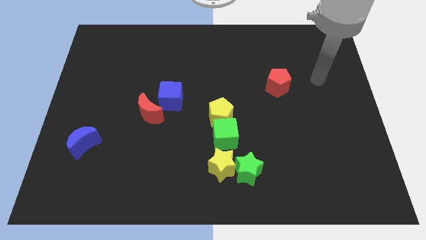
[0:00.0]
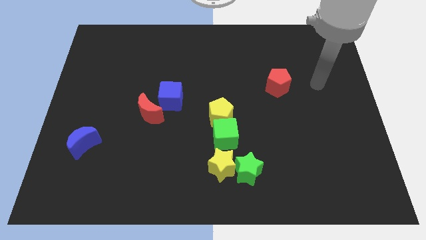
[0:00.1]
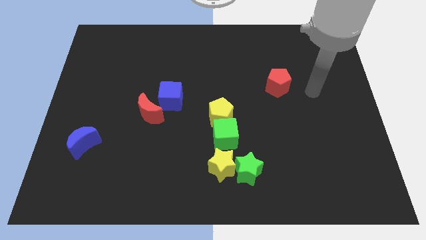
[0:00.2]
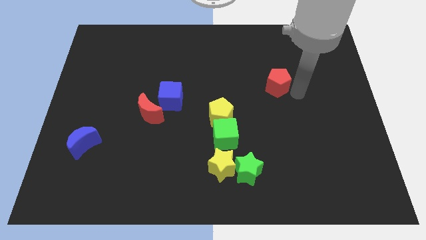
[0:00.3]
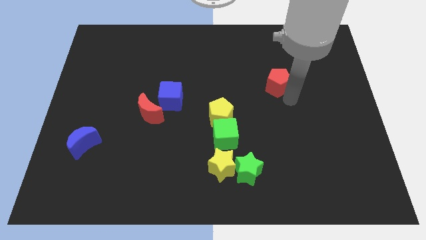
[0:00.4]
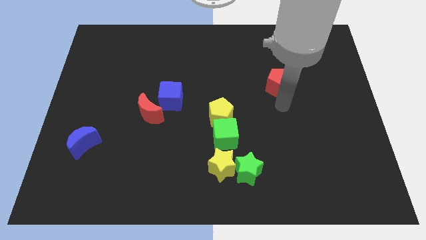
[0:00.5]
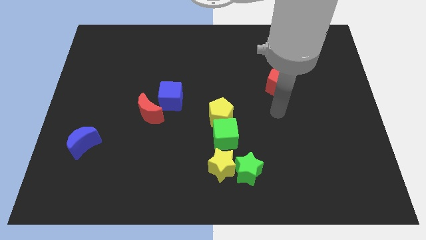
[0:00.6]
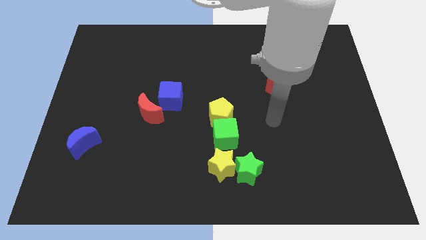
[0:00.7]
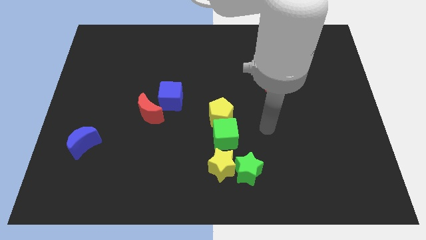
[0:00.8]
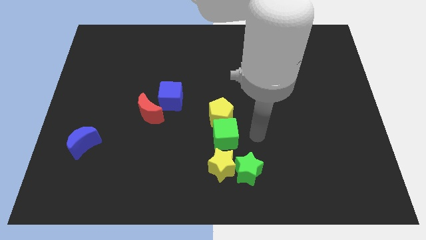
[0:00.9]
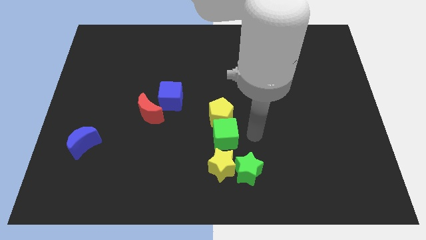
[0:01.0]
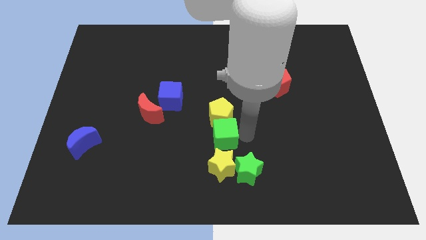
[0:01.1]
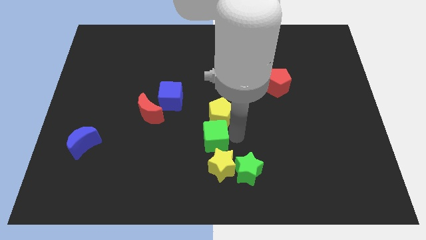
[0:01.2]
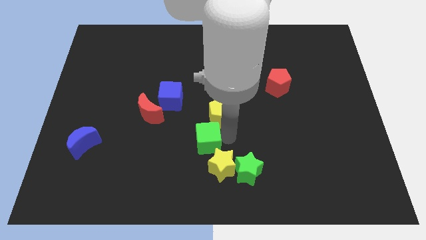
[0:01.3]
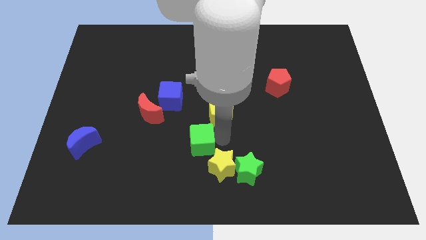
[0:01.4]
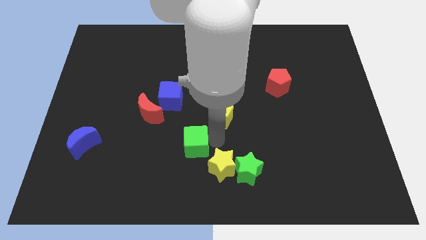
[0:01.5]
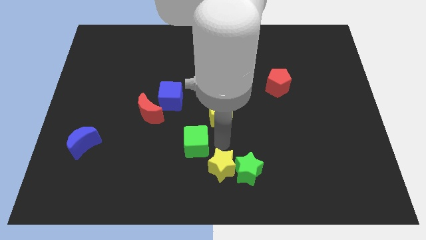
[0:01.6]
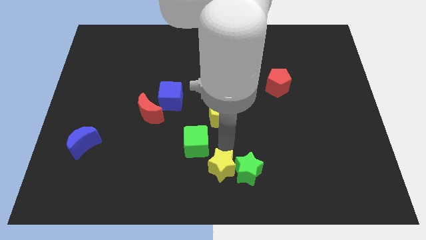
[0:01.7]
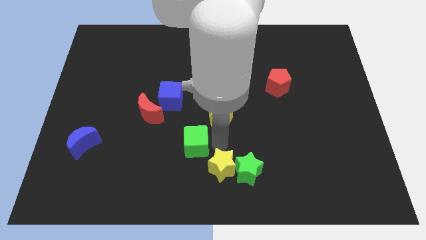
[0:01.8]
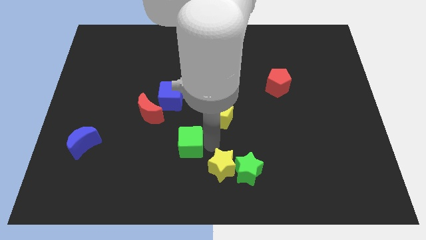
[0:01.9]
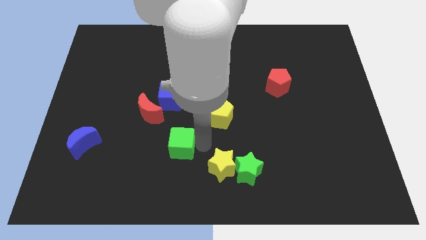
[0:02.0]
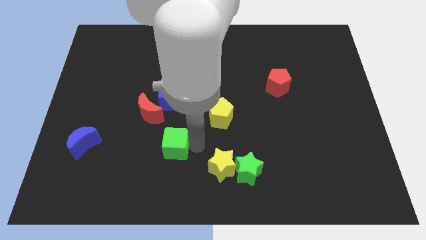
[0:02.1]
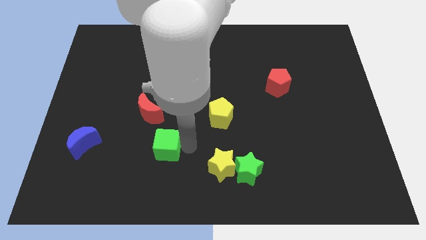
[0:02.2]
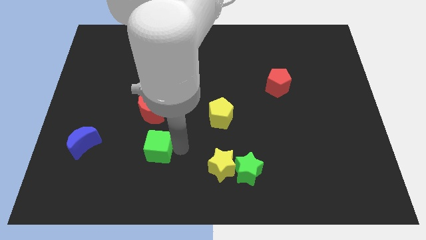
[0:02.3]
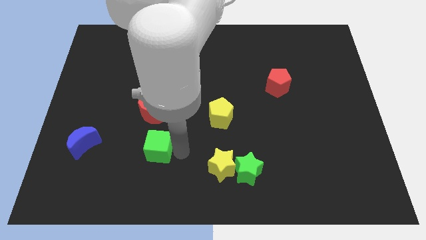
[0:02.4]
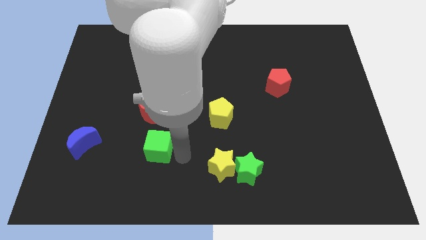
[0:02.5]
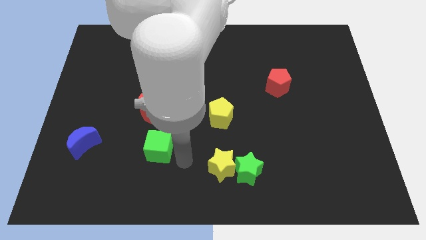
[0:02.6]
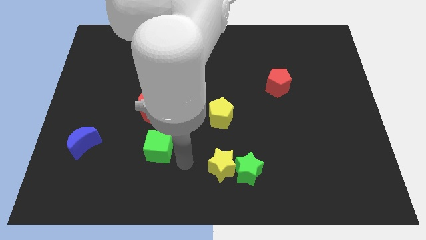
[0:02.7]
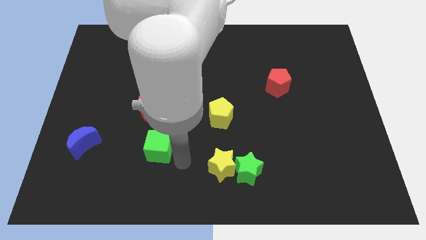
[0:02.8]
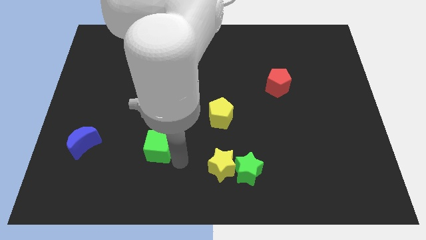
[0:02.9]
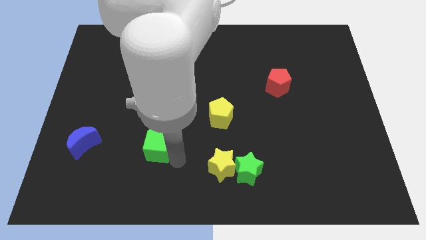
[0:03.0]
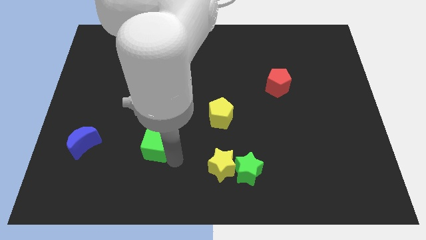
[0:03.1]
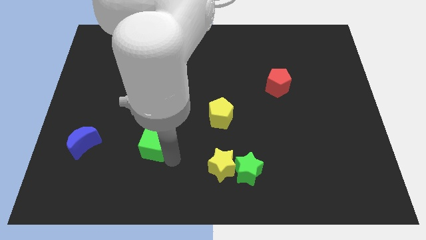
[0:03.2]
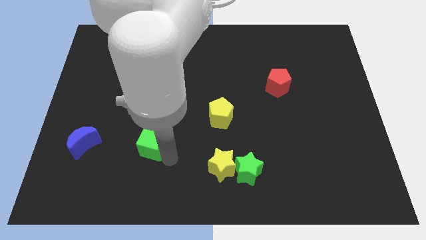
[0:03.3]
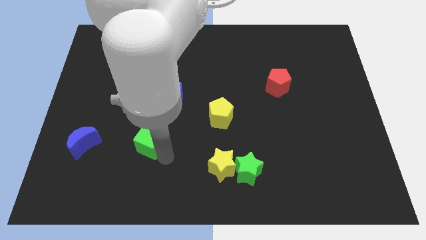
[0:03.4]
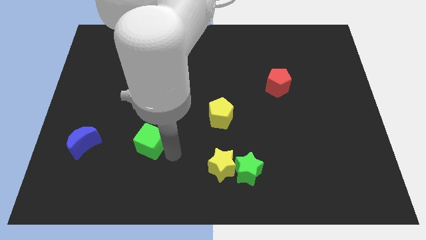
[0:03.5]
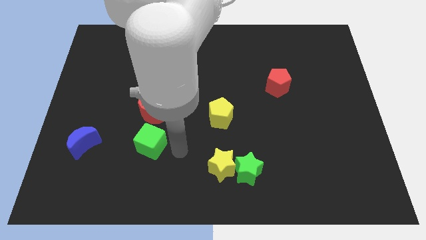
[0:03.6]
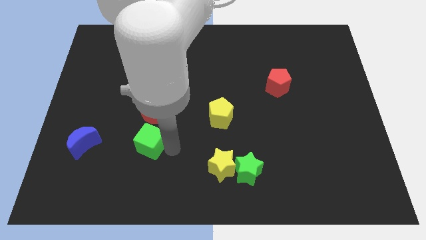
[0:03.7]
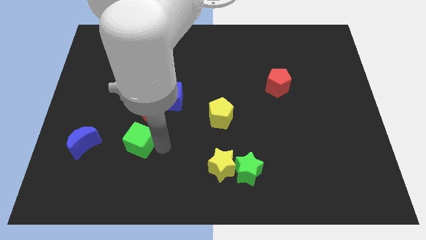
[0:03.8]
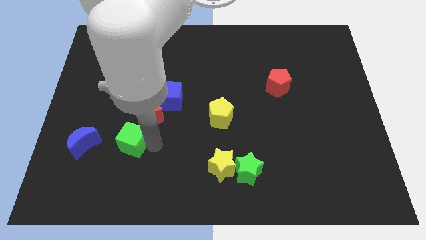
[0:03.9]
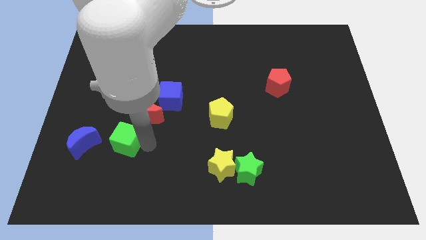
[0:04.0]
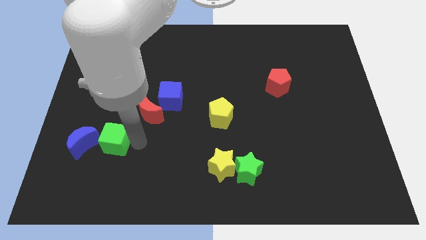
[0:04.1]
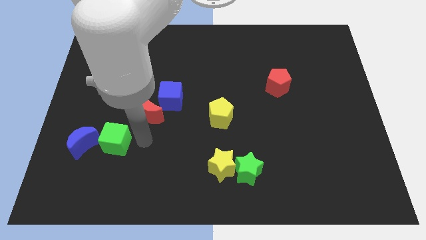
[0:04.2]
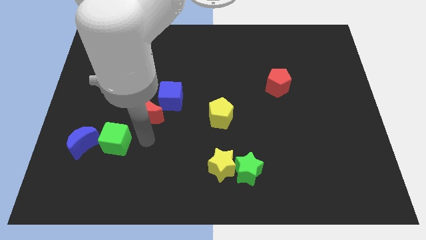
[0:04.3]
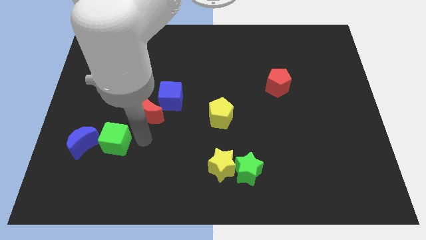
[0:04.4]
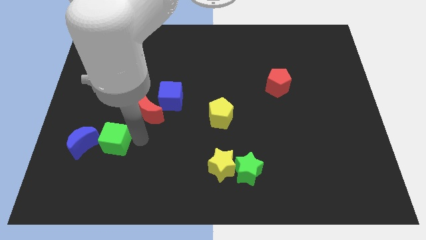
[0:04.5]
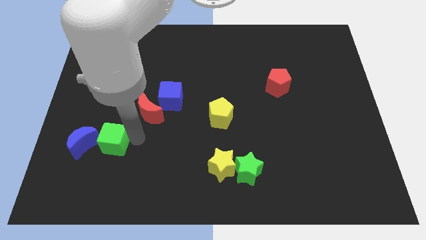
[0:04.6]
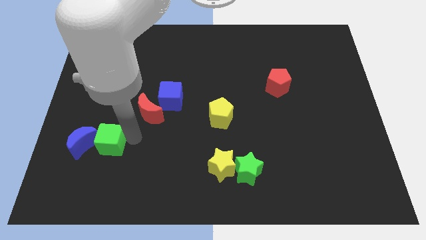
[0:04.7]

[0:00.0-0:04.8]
move the green cube towards the blue moon

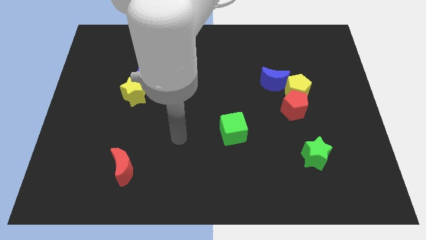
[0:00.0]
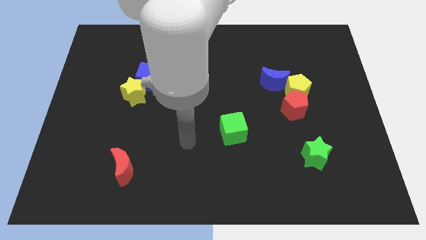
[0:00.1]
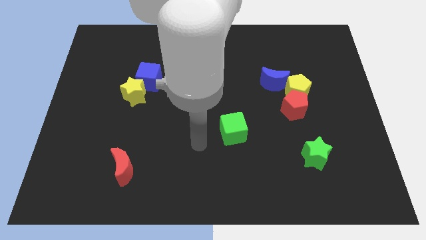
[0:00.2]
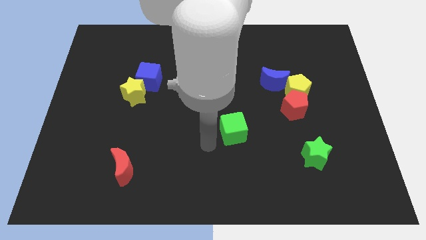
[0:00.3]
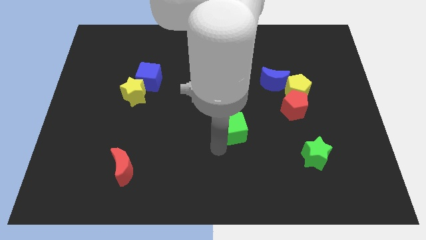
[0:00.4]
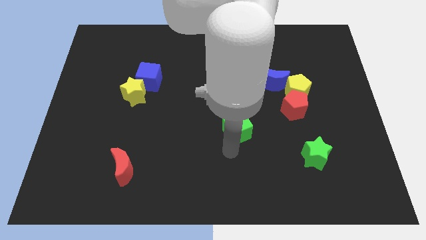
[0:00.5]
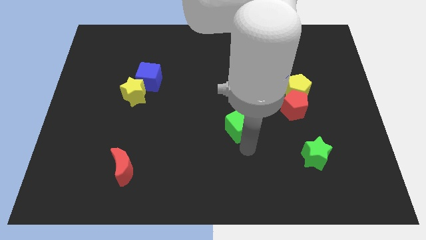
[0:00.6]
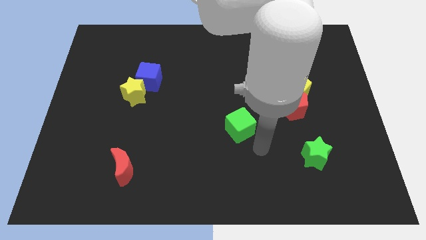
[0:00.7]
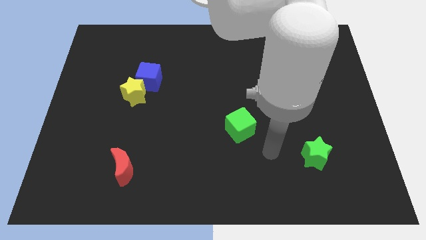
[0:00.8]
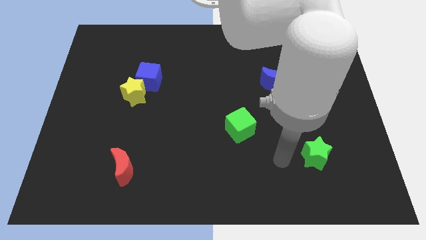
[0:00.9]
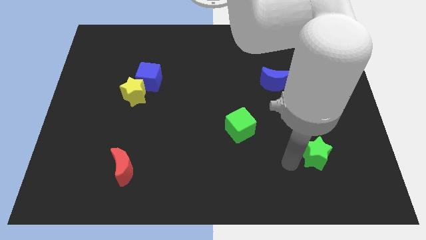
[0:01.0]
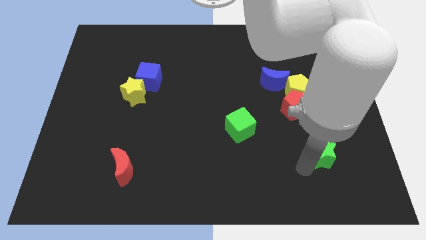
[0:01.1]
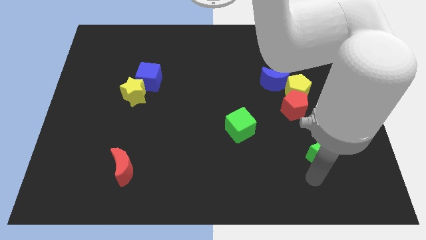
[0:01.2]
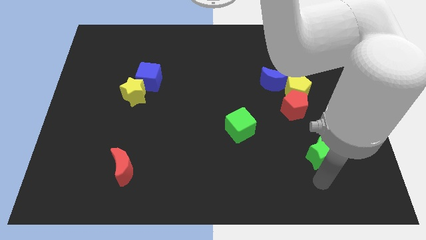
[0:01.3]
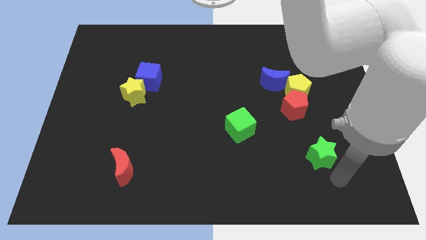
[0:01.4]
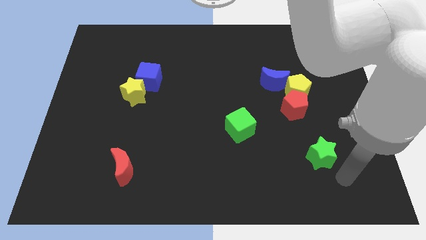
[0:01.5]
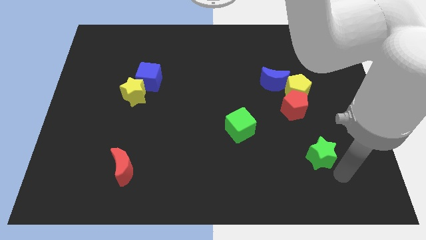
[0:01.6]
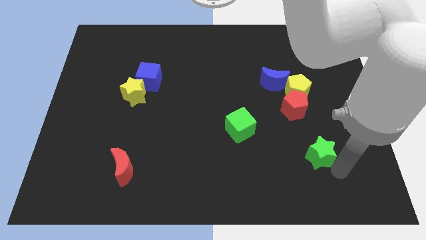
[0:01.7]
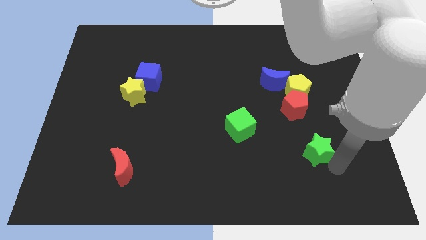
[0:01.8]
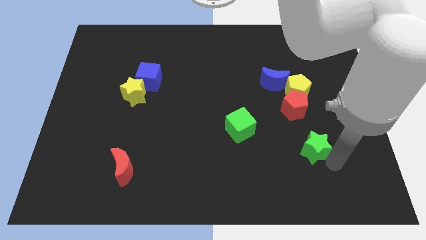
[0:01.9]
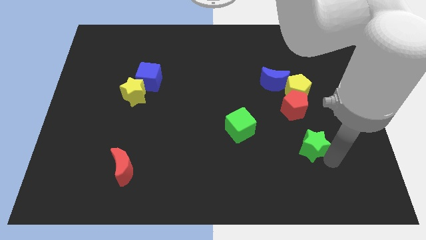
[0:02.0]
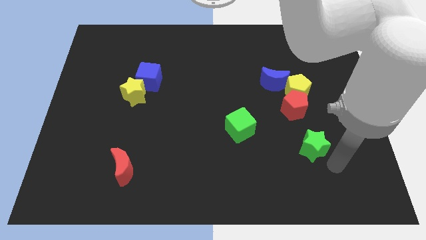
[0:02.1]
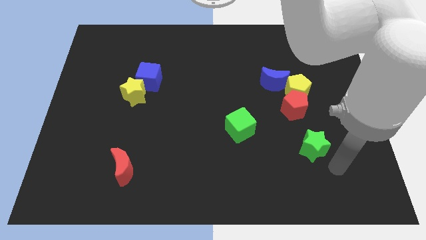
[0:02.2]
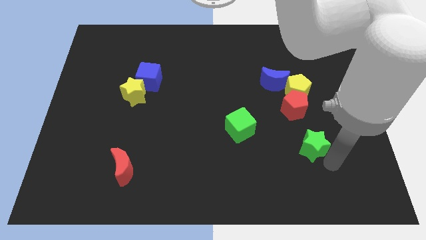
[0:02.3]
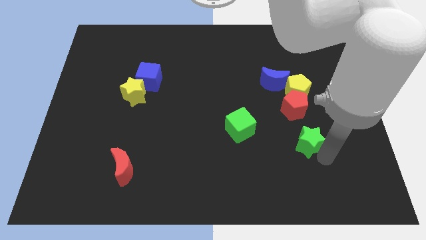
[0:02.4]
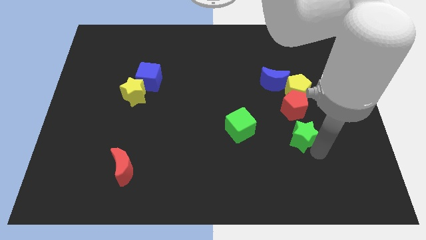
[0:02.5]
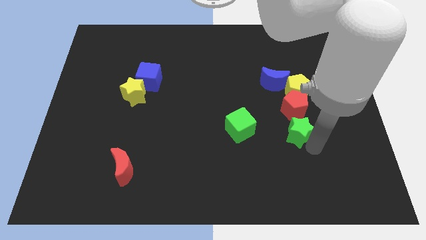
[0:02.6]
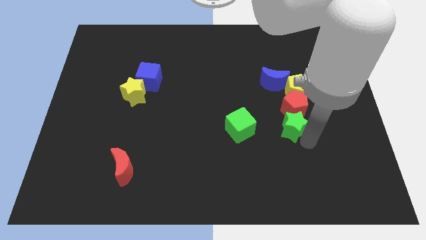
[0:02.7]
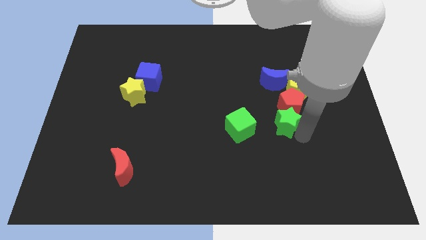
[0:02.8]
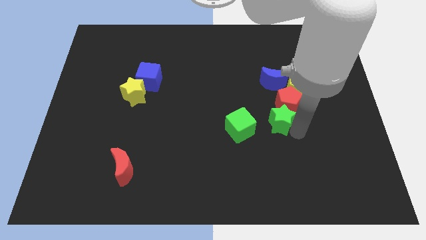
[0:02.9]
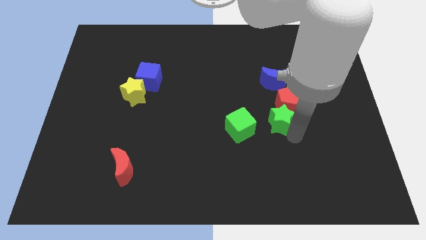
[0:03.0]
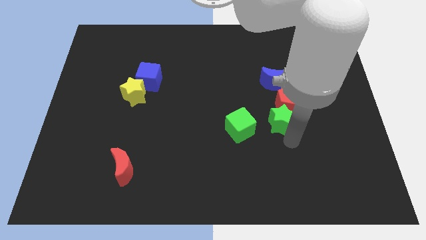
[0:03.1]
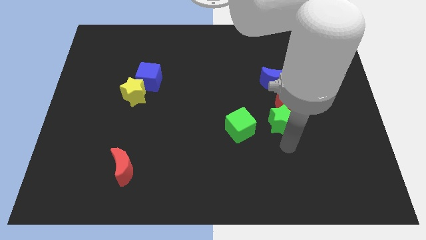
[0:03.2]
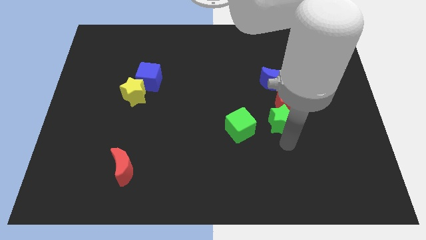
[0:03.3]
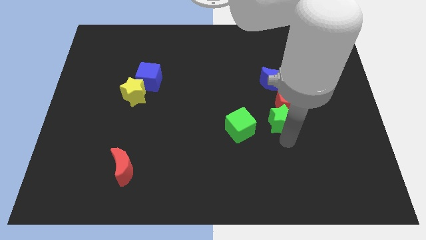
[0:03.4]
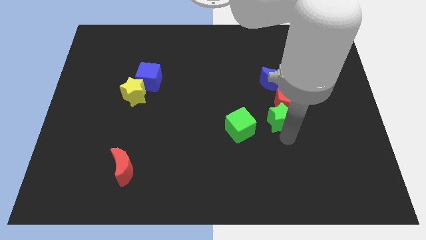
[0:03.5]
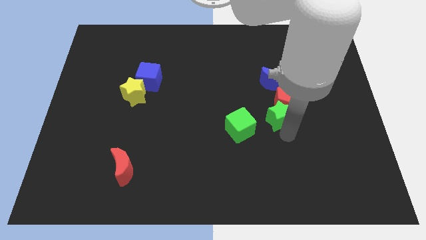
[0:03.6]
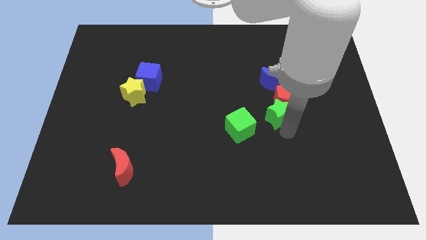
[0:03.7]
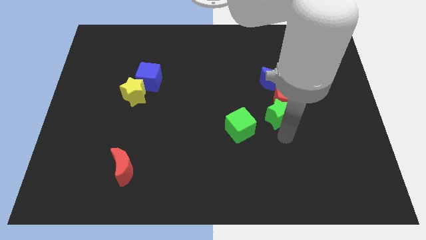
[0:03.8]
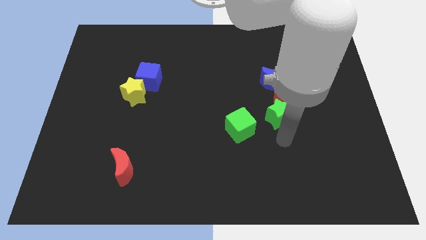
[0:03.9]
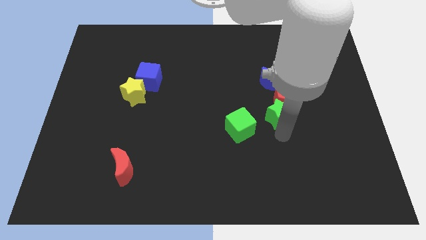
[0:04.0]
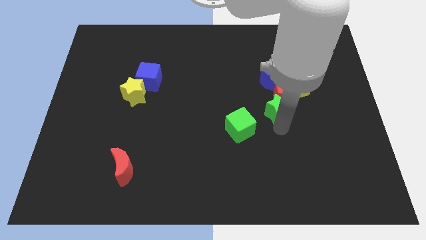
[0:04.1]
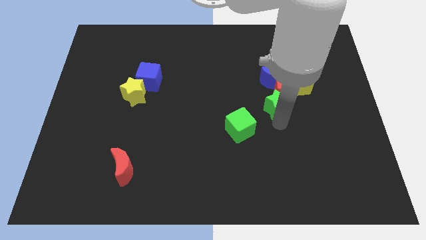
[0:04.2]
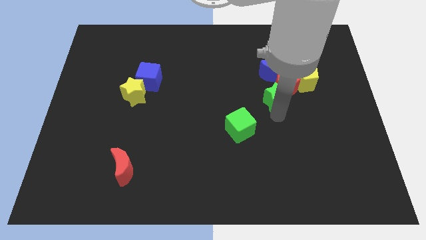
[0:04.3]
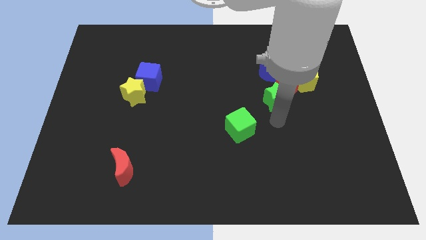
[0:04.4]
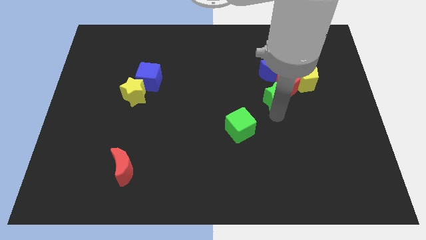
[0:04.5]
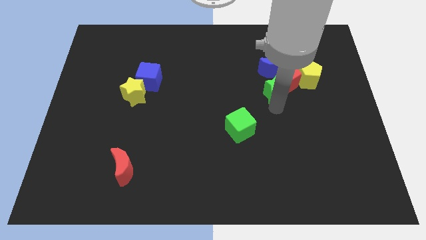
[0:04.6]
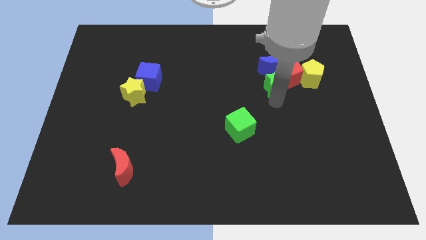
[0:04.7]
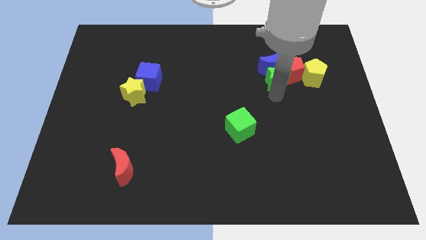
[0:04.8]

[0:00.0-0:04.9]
slide the green star to the blue moon
